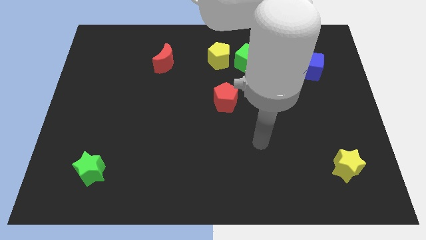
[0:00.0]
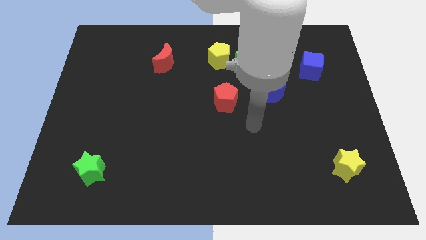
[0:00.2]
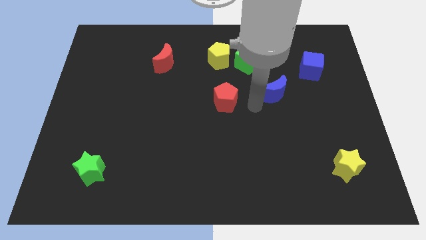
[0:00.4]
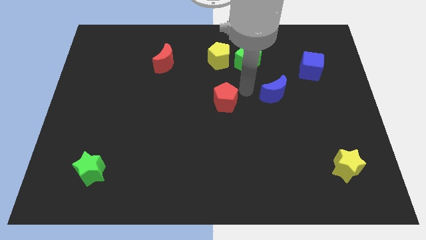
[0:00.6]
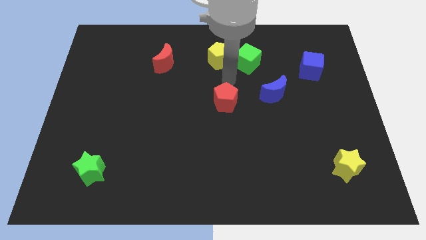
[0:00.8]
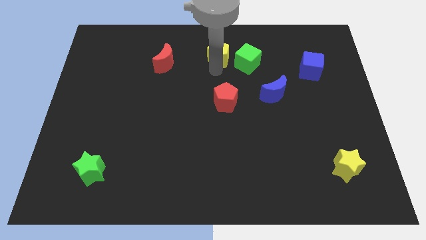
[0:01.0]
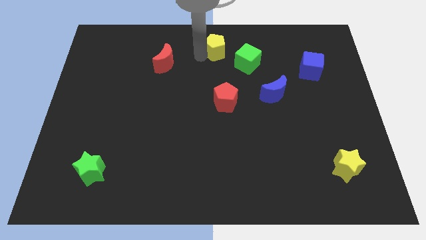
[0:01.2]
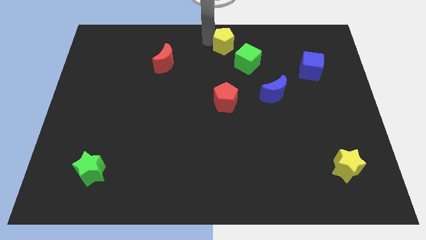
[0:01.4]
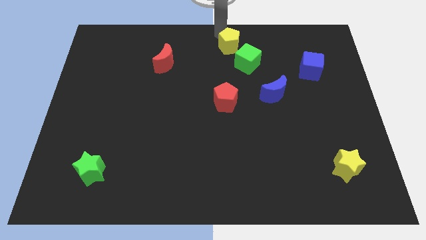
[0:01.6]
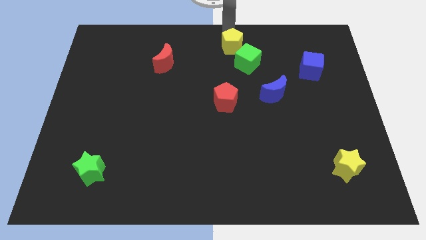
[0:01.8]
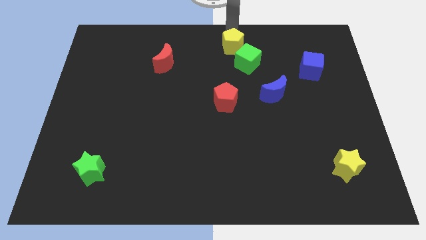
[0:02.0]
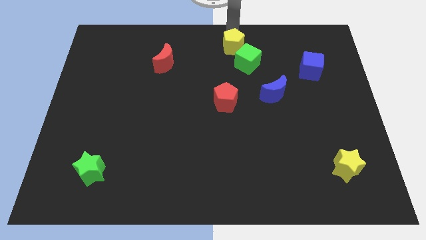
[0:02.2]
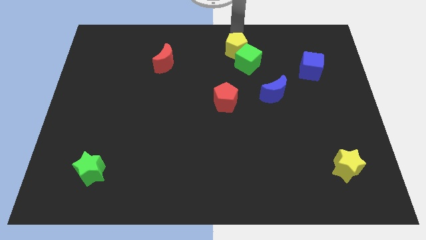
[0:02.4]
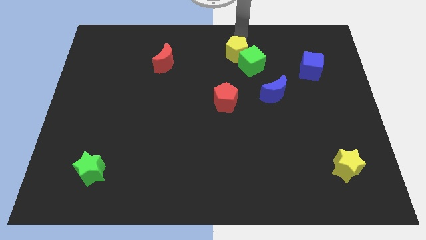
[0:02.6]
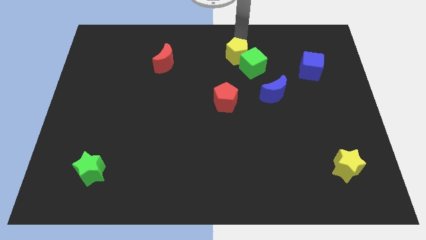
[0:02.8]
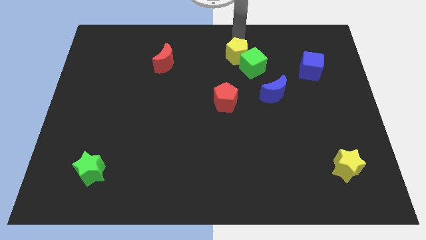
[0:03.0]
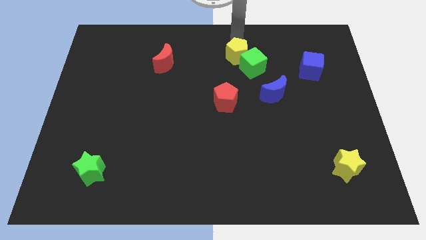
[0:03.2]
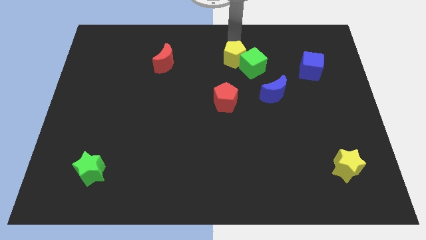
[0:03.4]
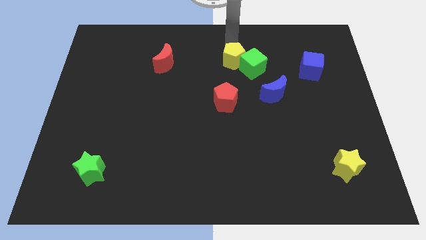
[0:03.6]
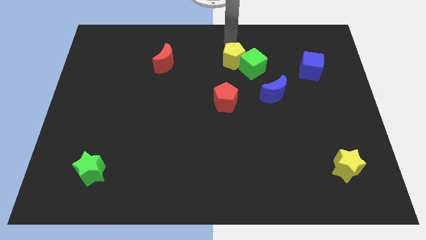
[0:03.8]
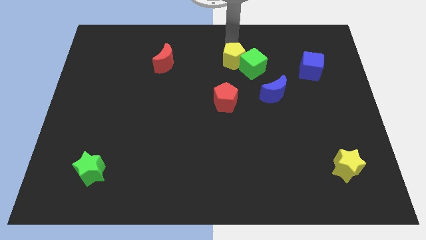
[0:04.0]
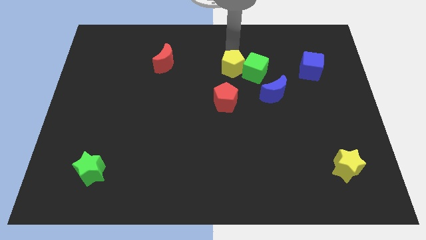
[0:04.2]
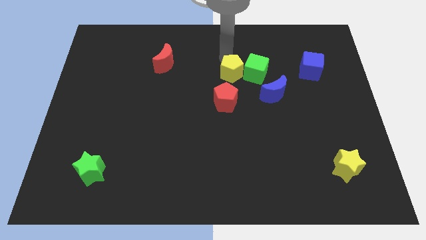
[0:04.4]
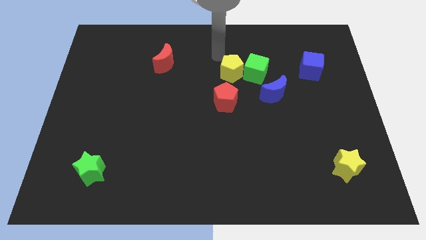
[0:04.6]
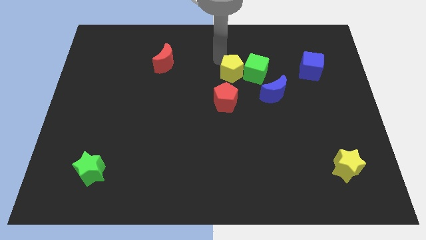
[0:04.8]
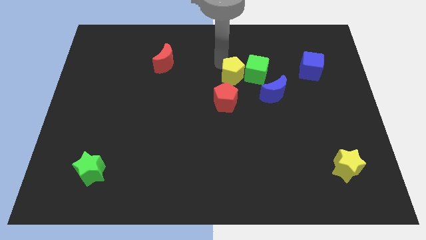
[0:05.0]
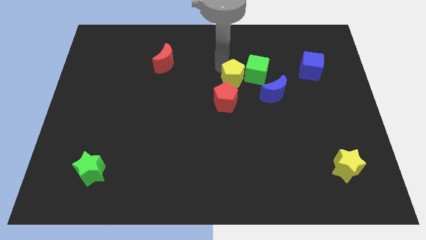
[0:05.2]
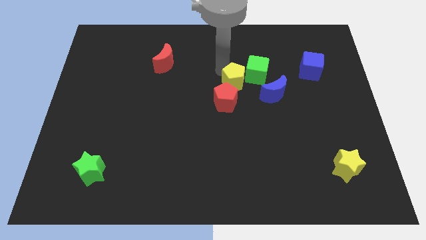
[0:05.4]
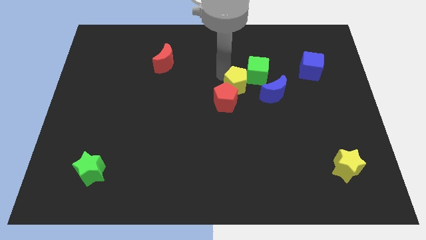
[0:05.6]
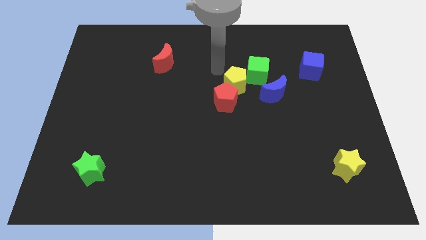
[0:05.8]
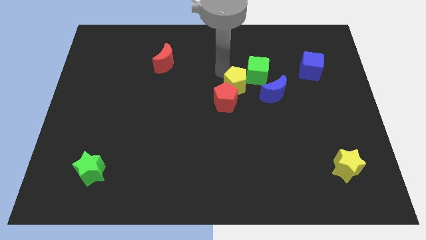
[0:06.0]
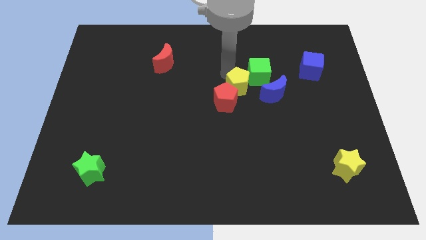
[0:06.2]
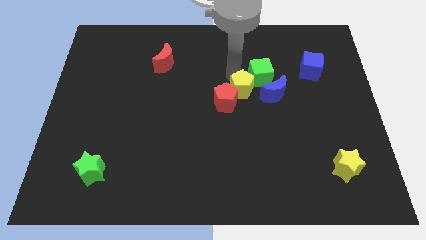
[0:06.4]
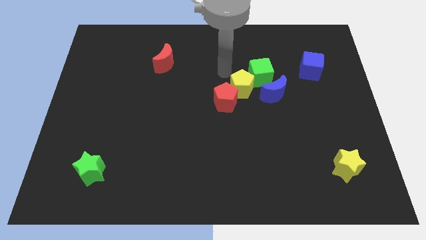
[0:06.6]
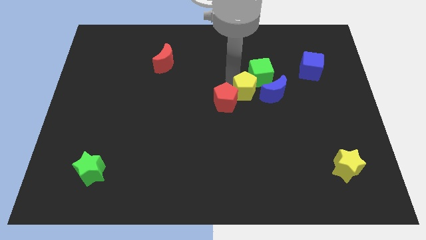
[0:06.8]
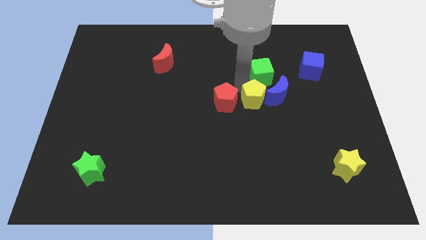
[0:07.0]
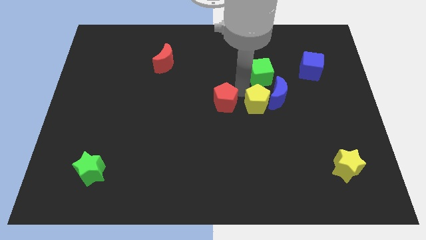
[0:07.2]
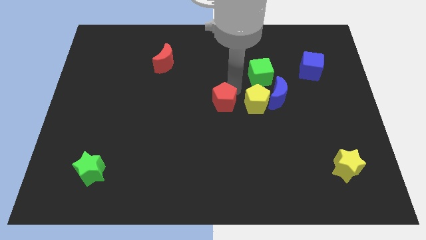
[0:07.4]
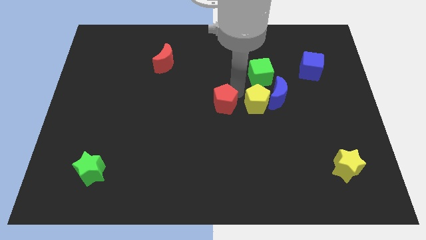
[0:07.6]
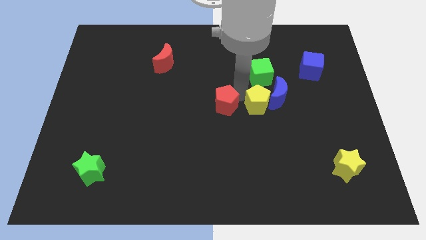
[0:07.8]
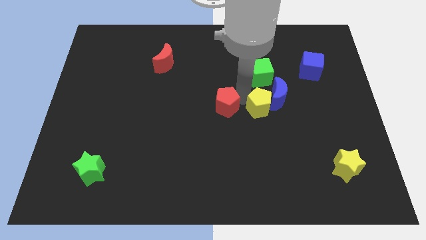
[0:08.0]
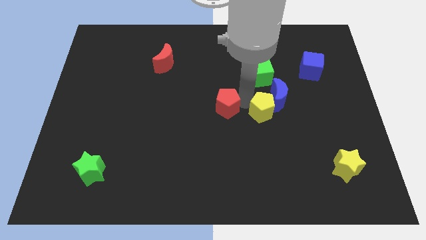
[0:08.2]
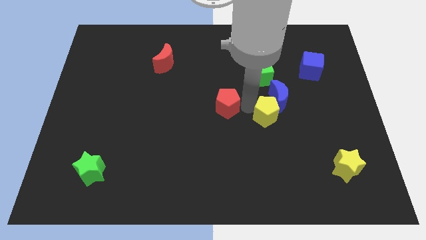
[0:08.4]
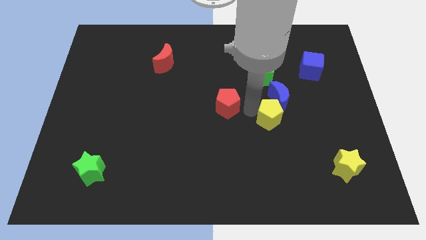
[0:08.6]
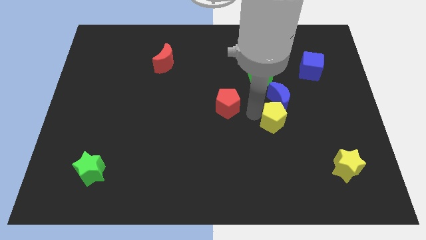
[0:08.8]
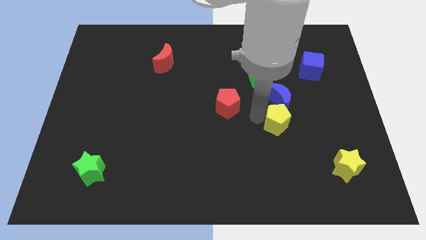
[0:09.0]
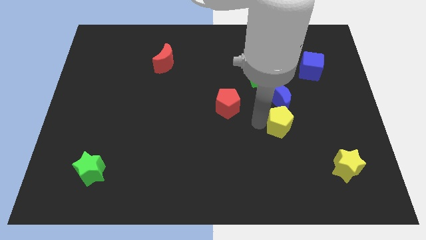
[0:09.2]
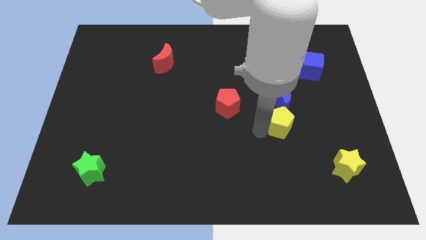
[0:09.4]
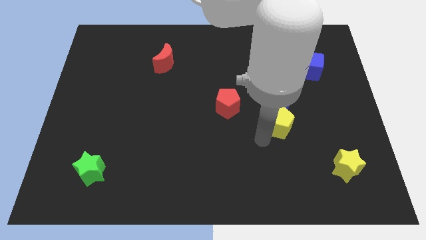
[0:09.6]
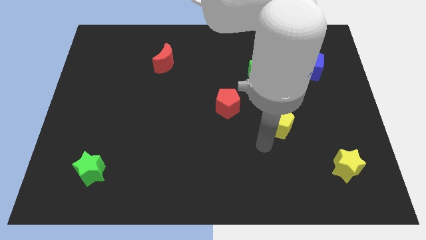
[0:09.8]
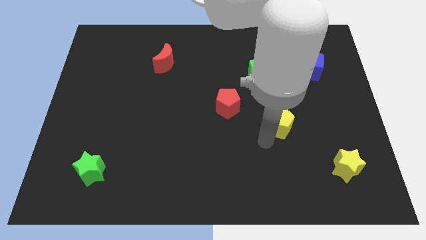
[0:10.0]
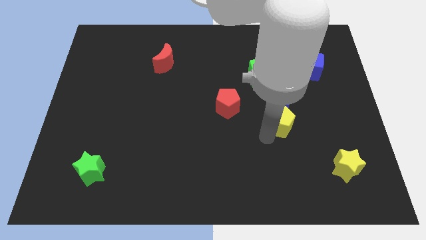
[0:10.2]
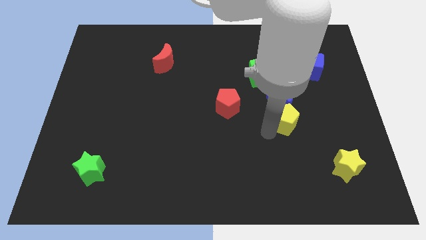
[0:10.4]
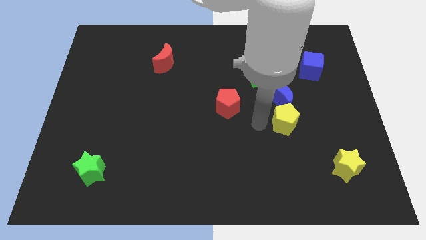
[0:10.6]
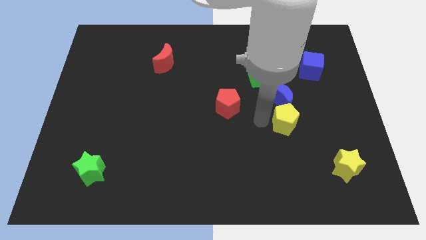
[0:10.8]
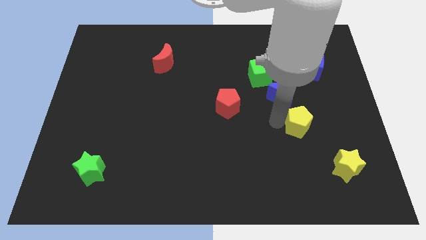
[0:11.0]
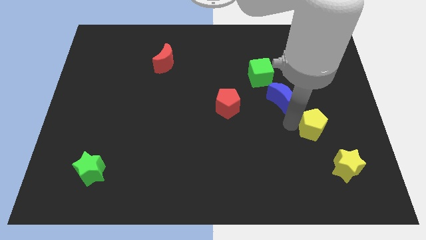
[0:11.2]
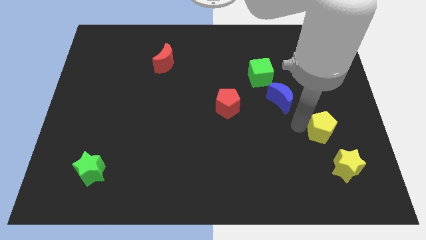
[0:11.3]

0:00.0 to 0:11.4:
slide the yellow pentagon above the yellow star

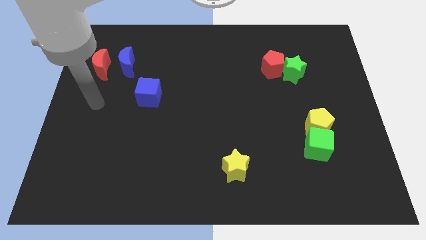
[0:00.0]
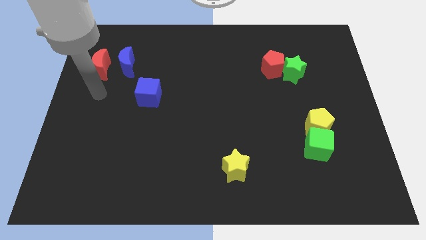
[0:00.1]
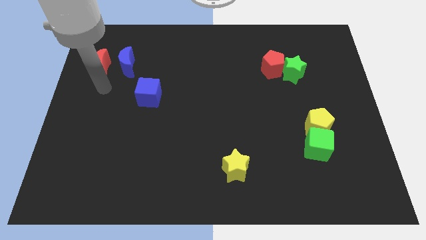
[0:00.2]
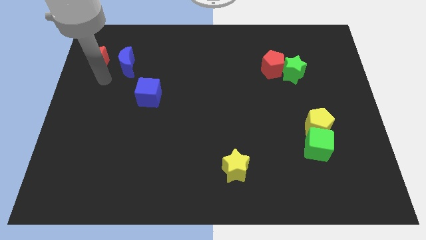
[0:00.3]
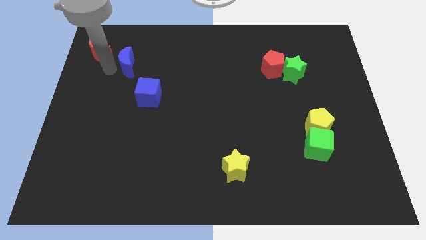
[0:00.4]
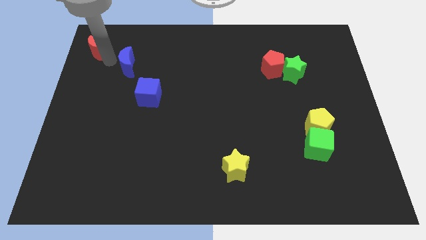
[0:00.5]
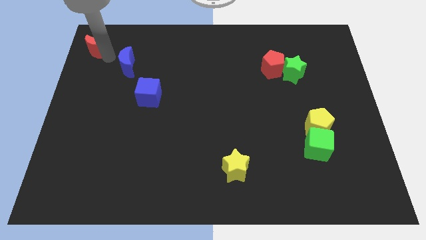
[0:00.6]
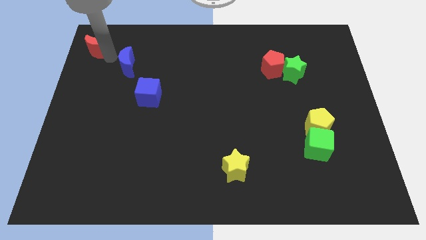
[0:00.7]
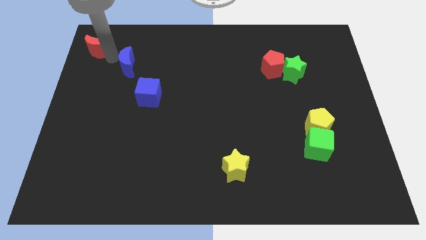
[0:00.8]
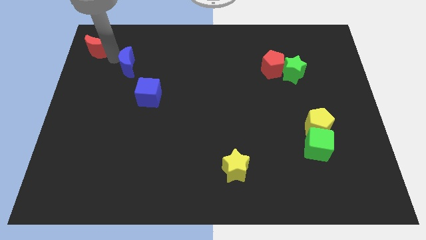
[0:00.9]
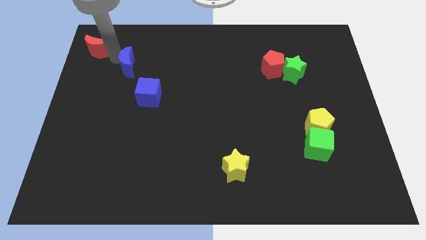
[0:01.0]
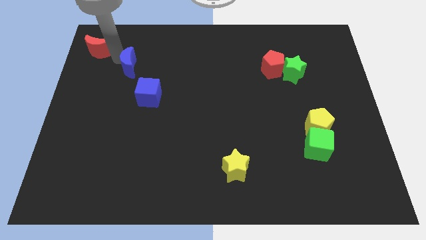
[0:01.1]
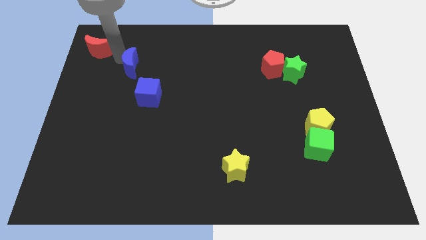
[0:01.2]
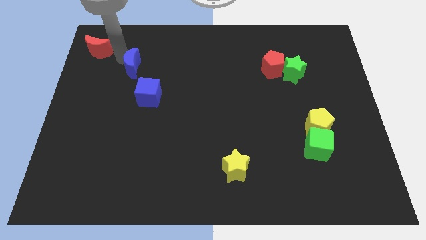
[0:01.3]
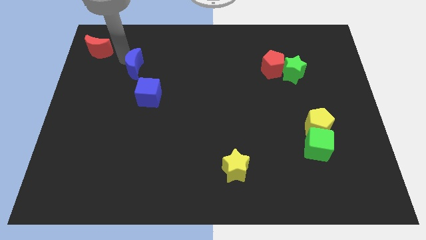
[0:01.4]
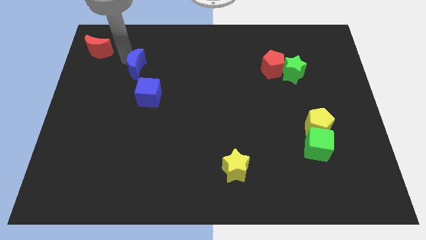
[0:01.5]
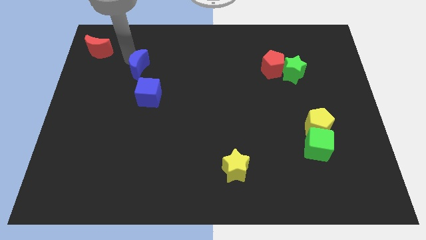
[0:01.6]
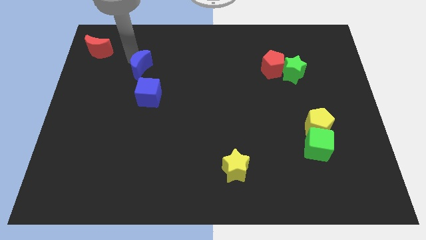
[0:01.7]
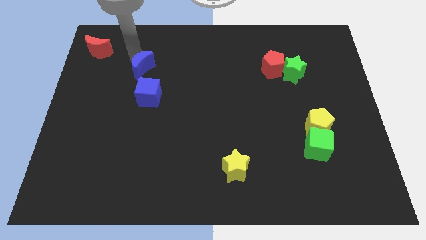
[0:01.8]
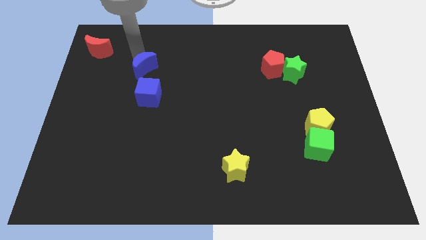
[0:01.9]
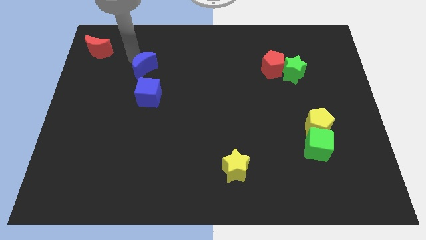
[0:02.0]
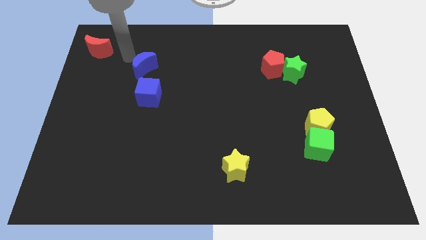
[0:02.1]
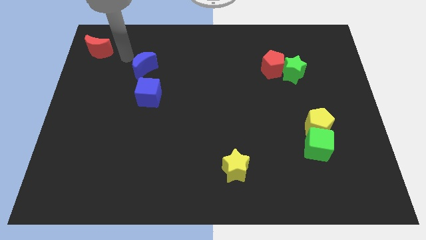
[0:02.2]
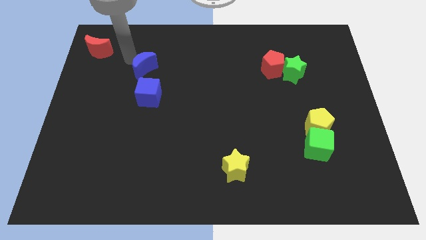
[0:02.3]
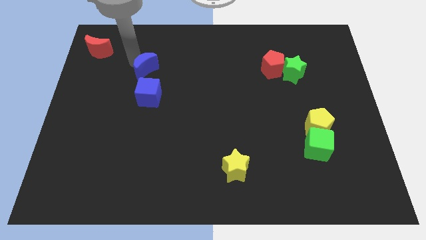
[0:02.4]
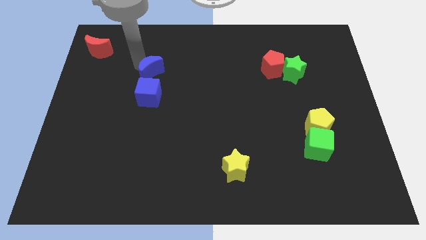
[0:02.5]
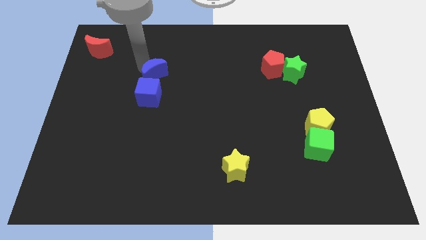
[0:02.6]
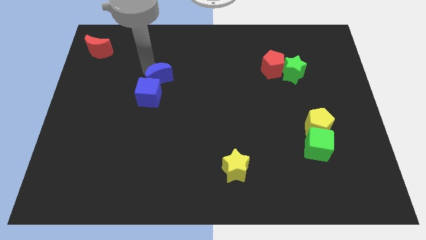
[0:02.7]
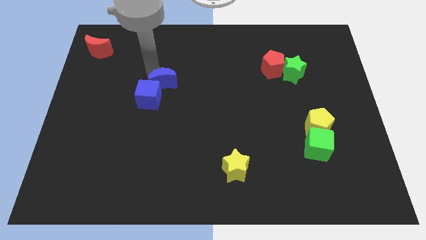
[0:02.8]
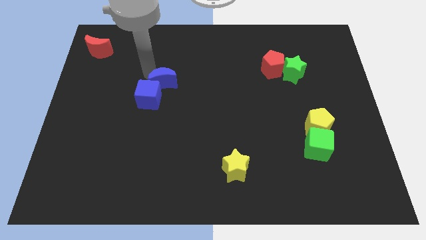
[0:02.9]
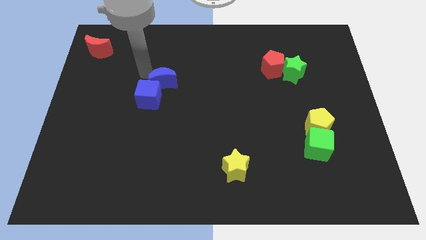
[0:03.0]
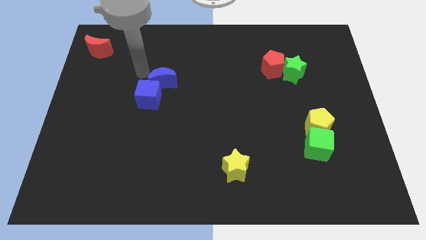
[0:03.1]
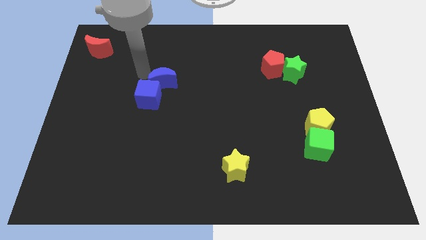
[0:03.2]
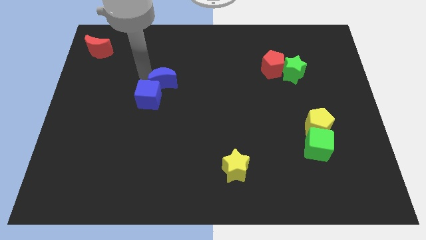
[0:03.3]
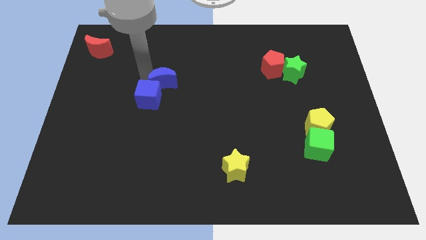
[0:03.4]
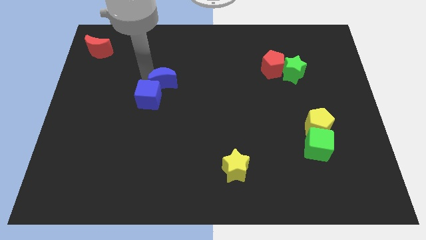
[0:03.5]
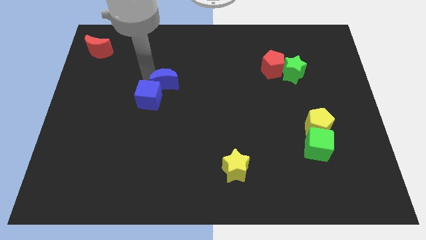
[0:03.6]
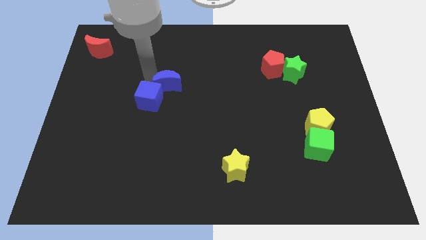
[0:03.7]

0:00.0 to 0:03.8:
slide the blue moon to the right side of the blue cube
